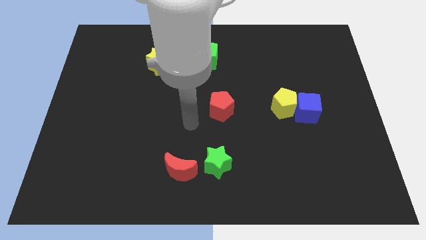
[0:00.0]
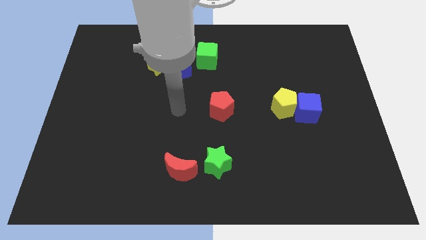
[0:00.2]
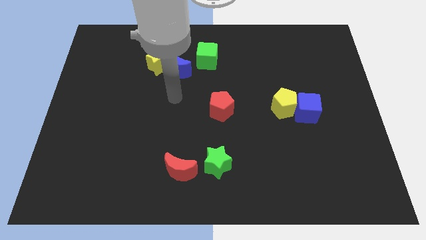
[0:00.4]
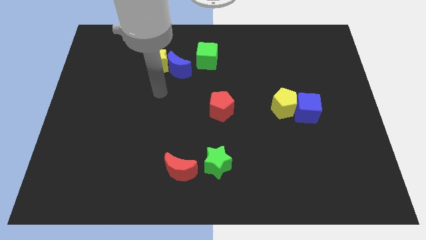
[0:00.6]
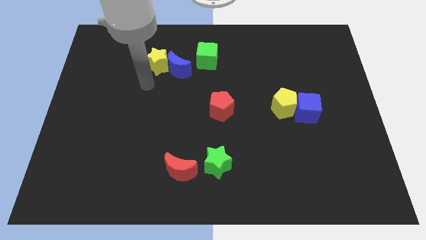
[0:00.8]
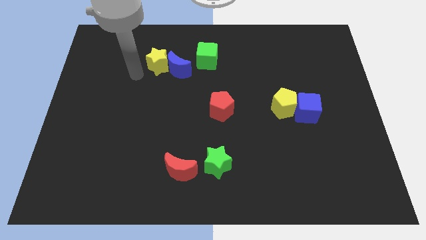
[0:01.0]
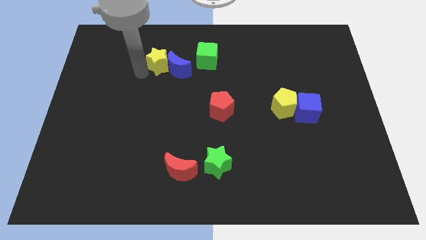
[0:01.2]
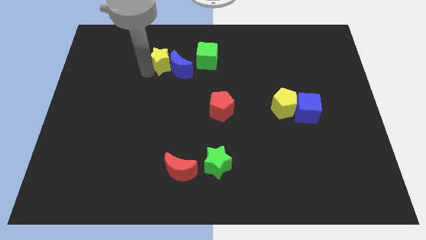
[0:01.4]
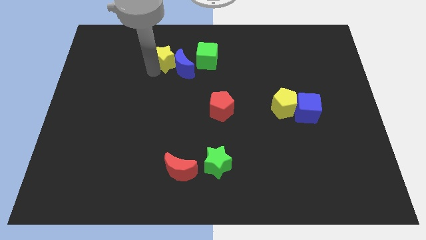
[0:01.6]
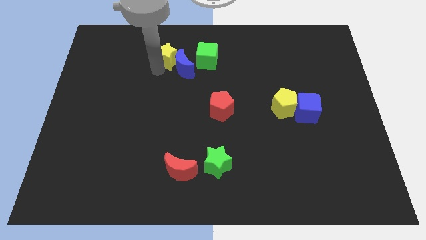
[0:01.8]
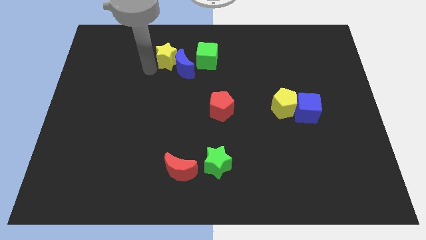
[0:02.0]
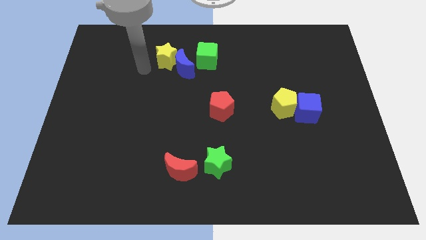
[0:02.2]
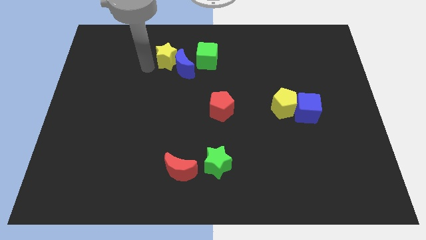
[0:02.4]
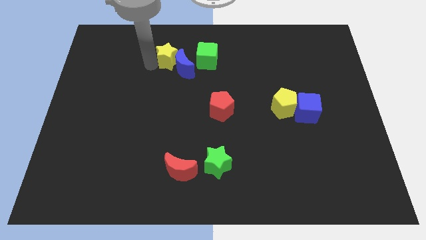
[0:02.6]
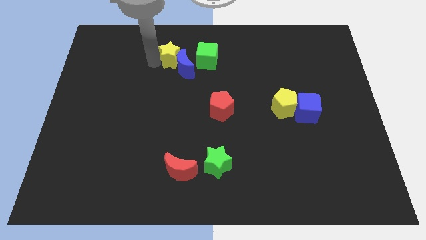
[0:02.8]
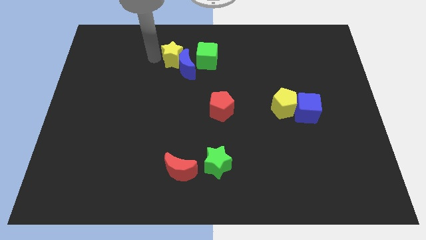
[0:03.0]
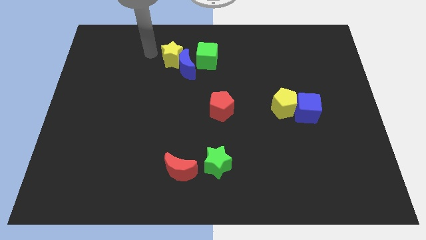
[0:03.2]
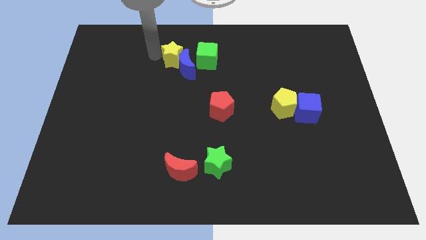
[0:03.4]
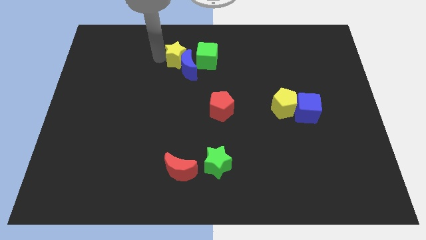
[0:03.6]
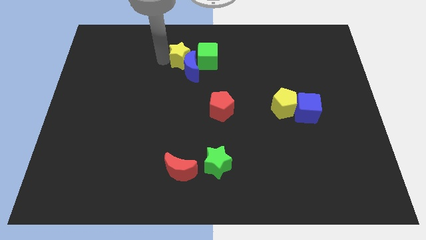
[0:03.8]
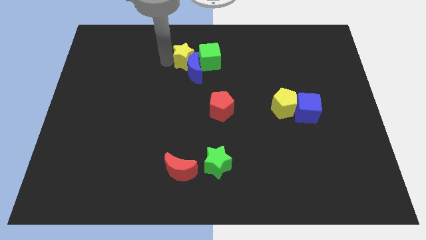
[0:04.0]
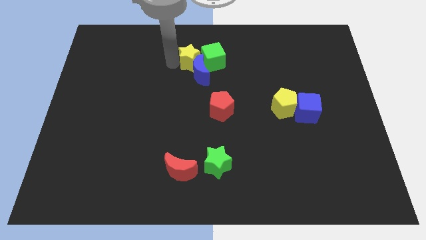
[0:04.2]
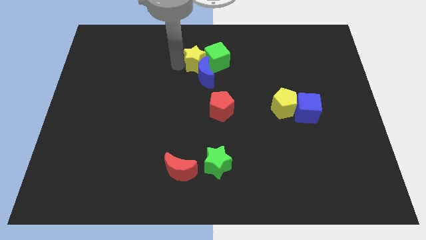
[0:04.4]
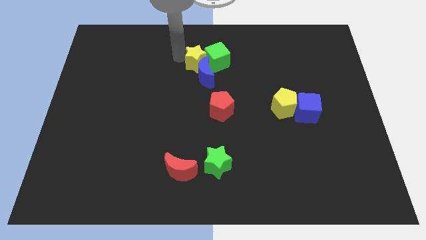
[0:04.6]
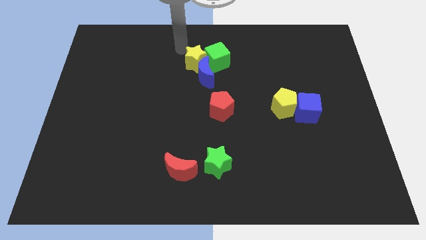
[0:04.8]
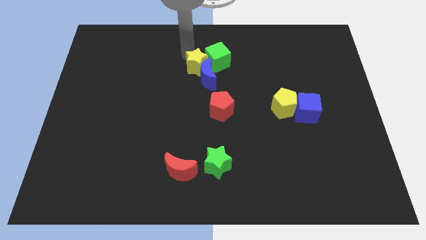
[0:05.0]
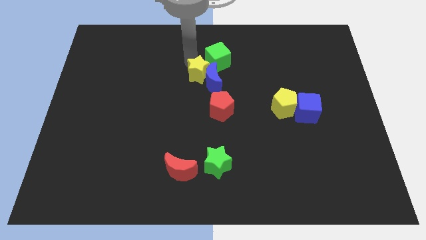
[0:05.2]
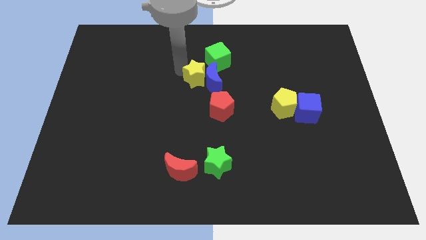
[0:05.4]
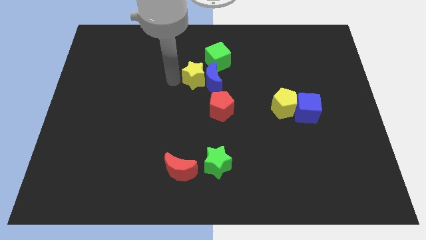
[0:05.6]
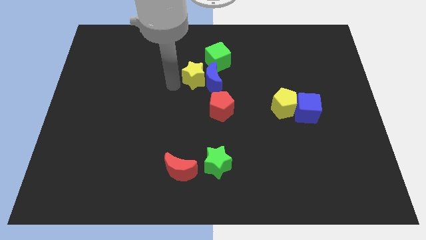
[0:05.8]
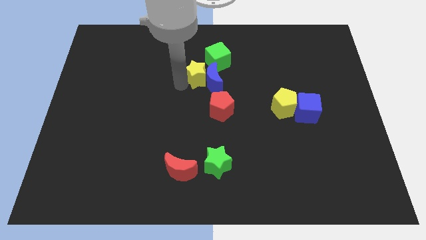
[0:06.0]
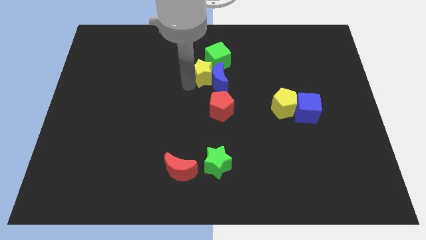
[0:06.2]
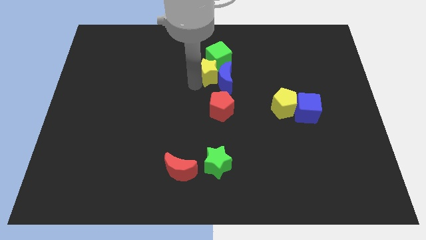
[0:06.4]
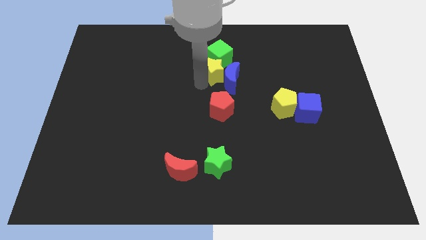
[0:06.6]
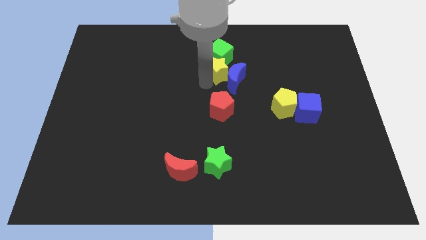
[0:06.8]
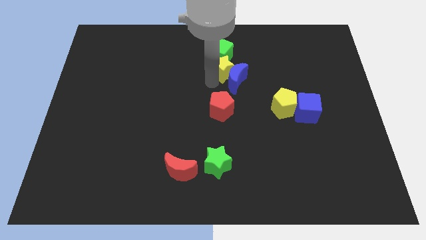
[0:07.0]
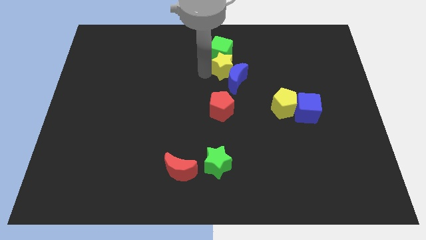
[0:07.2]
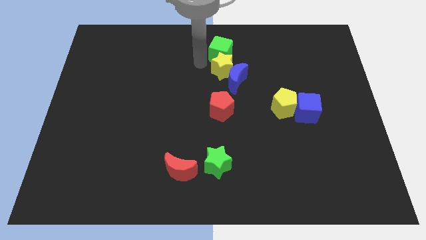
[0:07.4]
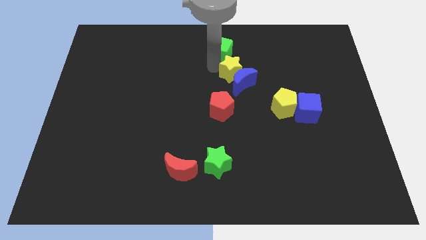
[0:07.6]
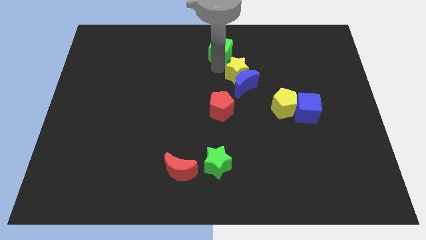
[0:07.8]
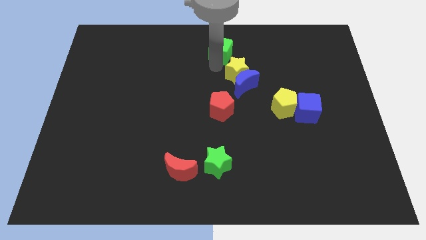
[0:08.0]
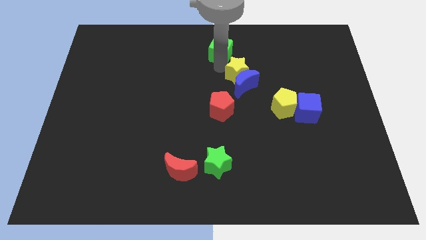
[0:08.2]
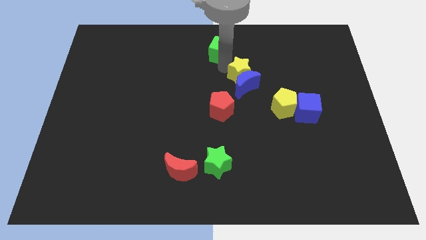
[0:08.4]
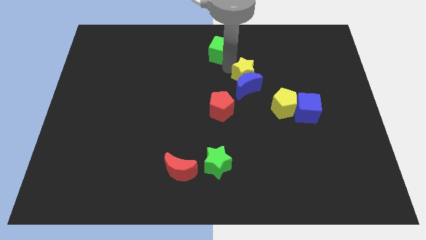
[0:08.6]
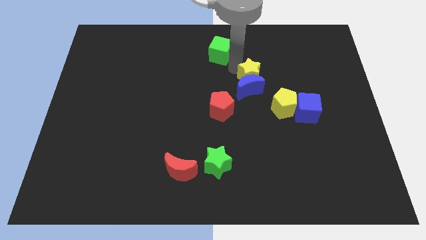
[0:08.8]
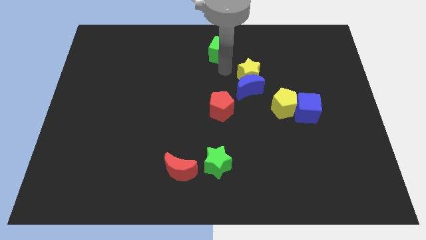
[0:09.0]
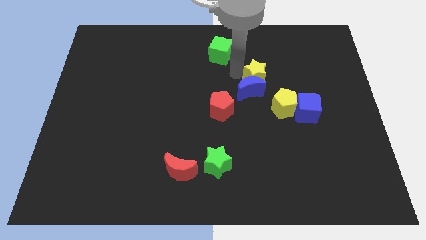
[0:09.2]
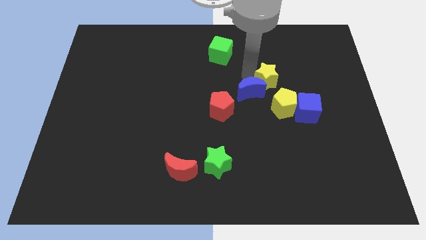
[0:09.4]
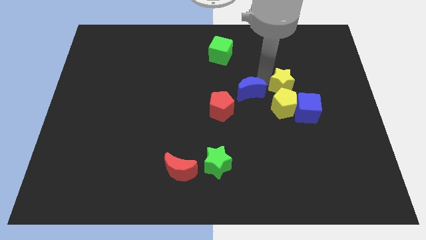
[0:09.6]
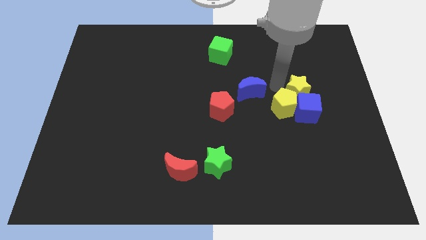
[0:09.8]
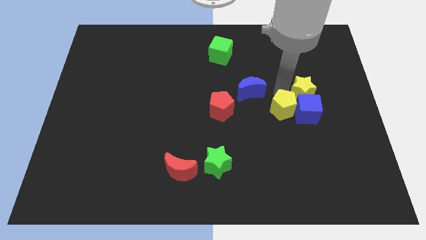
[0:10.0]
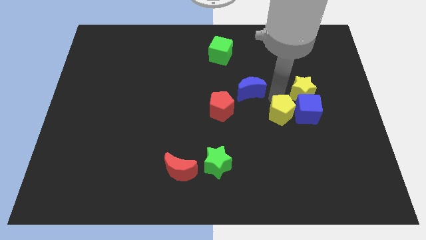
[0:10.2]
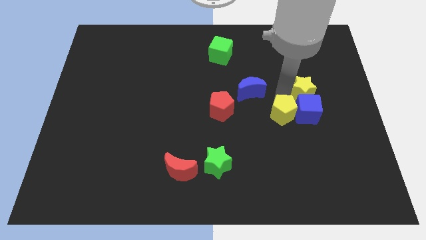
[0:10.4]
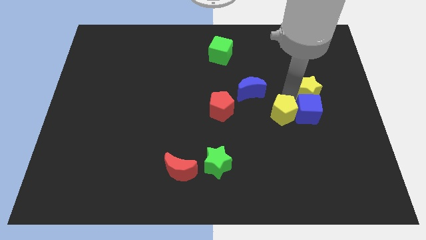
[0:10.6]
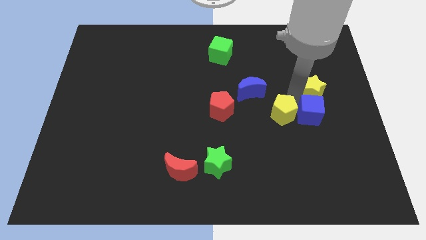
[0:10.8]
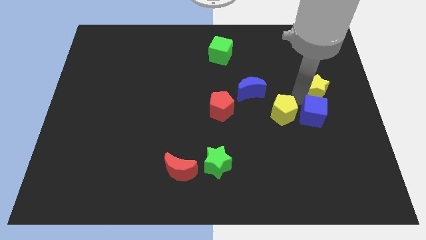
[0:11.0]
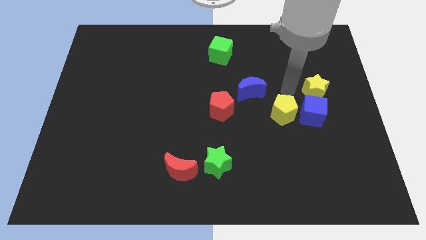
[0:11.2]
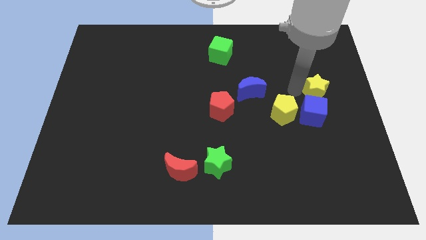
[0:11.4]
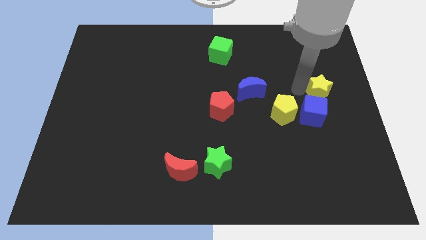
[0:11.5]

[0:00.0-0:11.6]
move the yellow star to the right side of the board

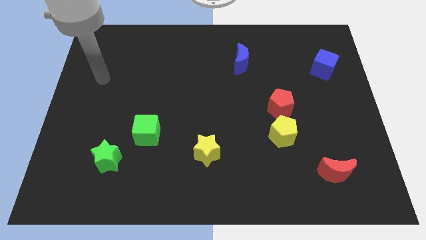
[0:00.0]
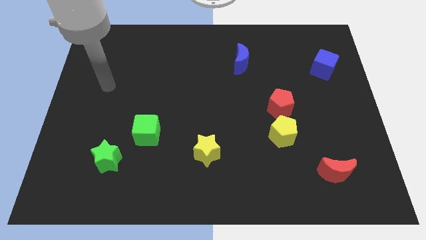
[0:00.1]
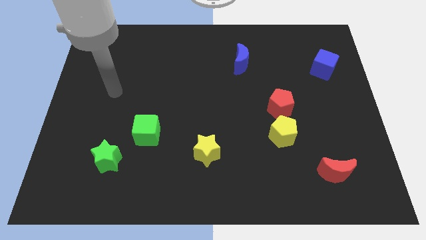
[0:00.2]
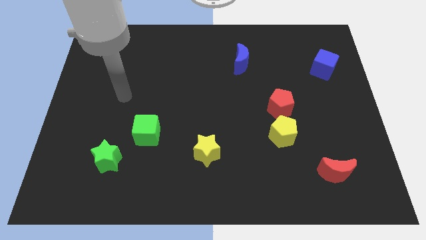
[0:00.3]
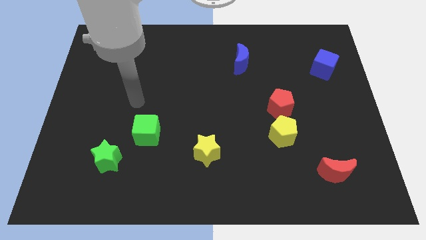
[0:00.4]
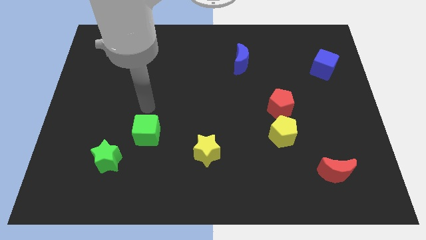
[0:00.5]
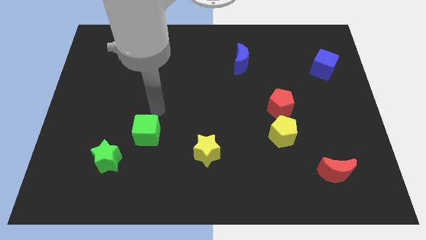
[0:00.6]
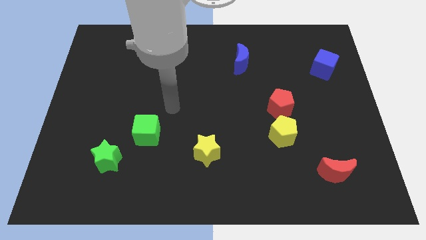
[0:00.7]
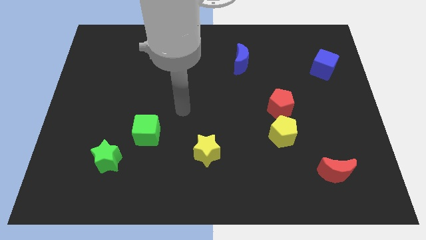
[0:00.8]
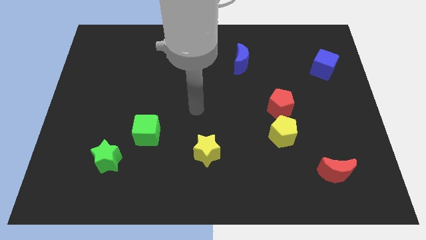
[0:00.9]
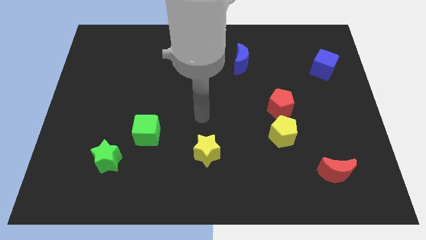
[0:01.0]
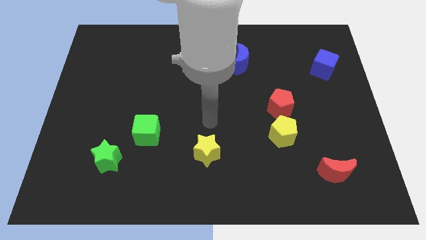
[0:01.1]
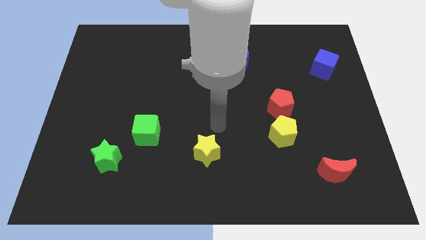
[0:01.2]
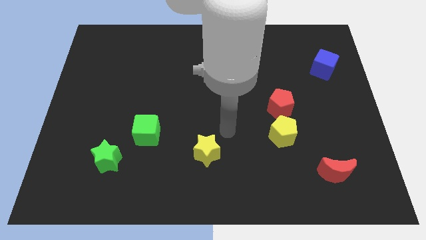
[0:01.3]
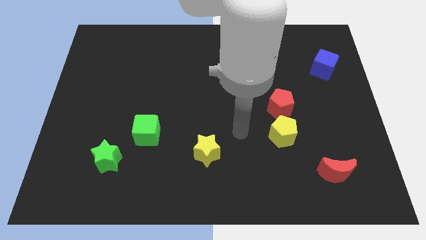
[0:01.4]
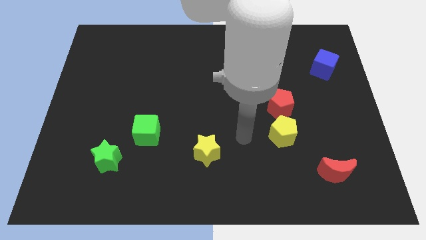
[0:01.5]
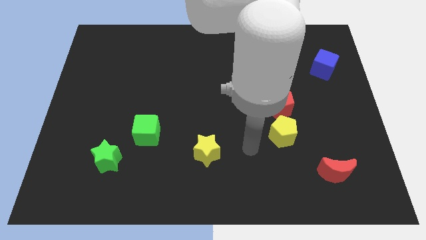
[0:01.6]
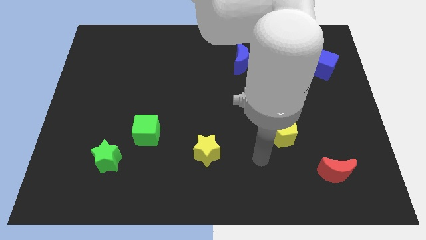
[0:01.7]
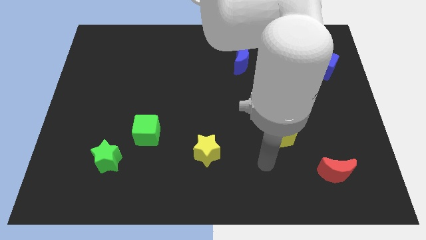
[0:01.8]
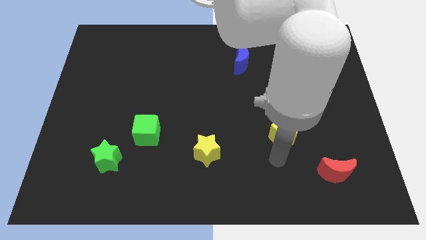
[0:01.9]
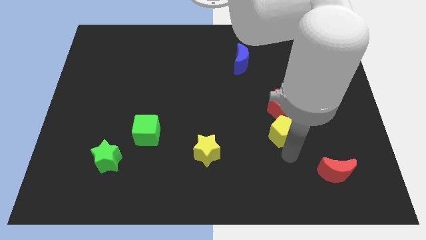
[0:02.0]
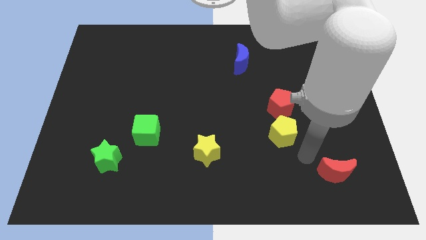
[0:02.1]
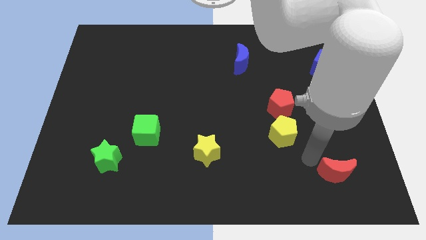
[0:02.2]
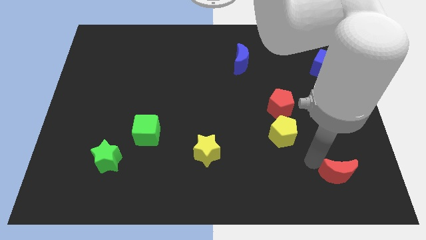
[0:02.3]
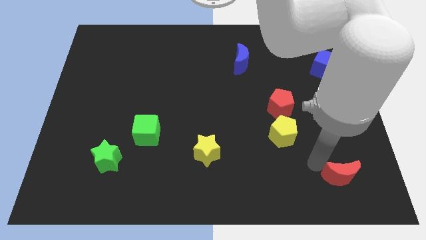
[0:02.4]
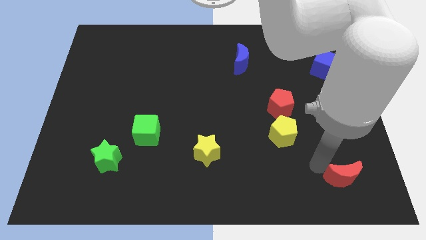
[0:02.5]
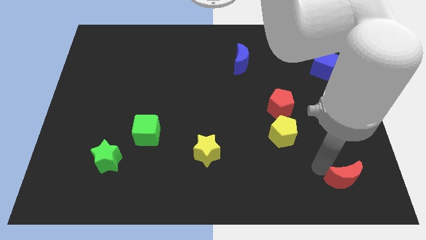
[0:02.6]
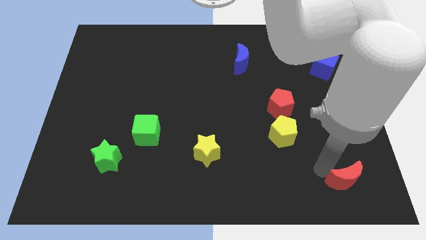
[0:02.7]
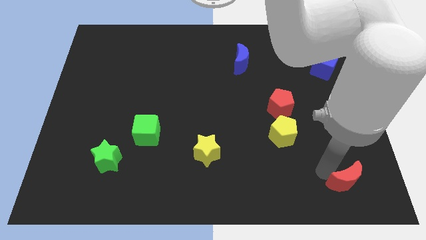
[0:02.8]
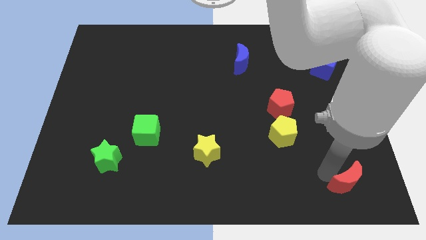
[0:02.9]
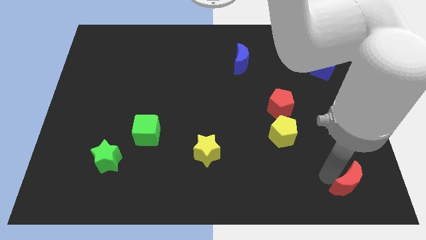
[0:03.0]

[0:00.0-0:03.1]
slide the red moon to the lower right corner
